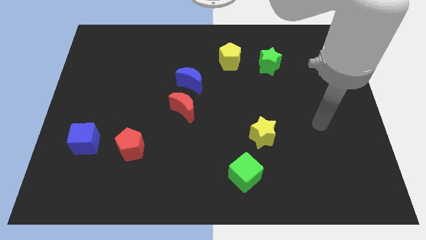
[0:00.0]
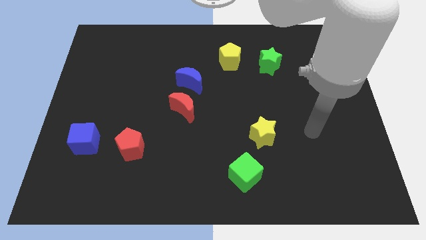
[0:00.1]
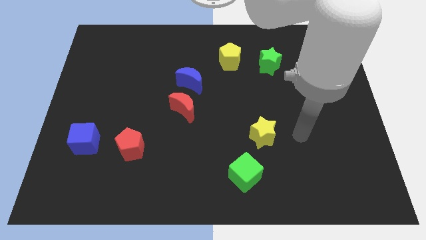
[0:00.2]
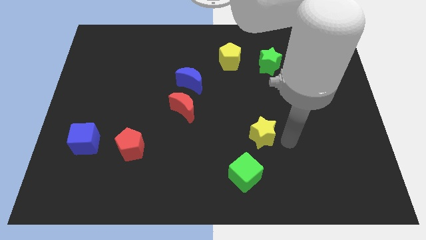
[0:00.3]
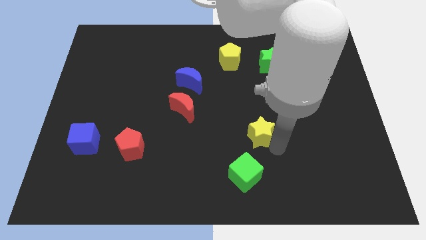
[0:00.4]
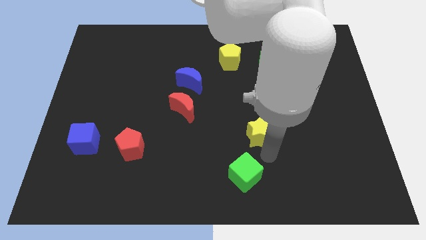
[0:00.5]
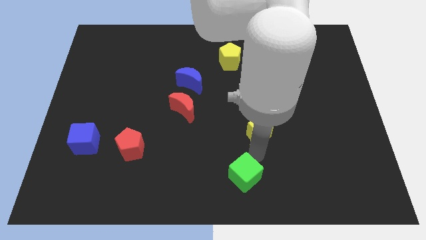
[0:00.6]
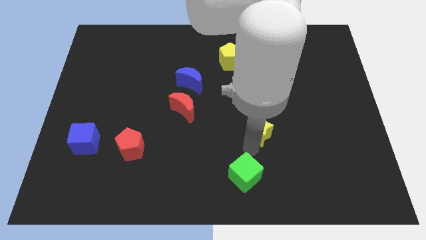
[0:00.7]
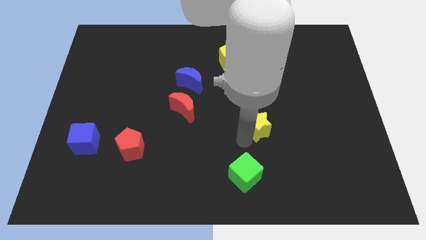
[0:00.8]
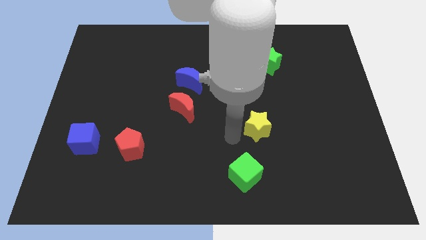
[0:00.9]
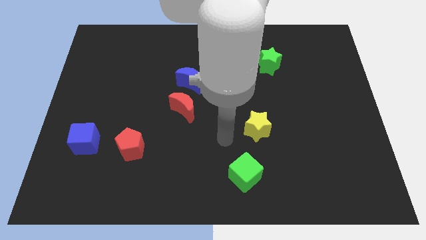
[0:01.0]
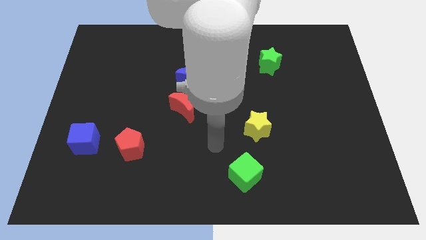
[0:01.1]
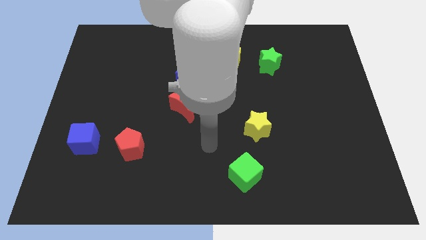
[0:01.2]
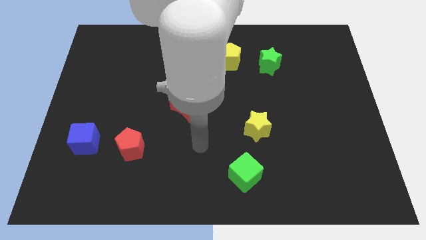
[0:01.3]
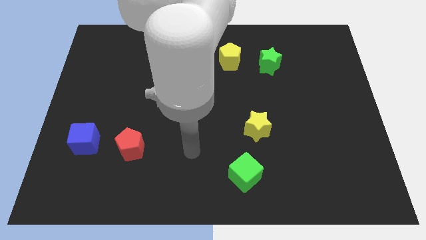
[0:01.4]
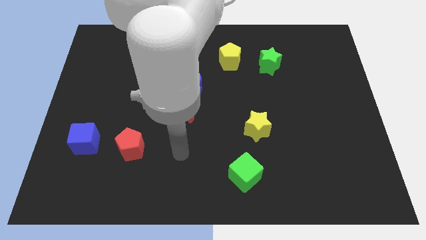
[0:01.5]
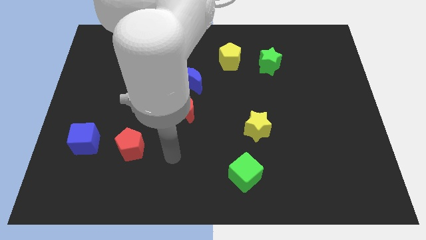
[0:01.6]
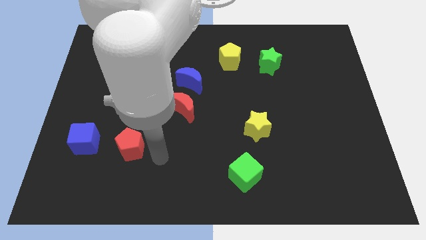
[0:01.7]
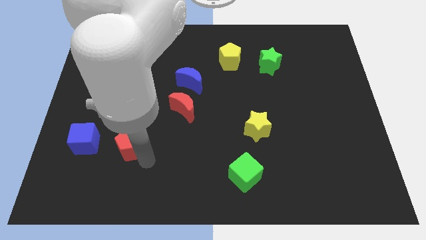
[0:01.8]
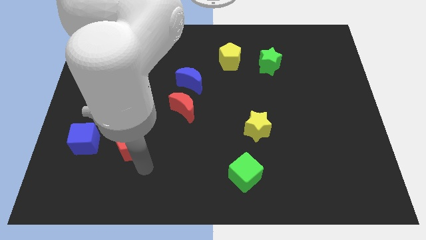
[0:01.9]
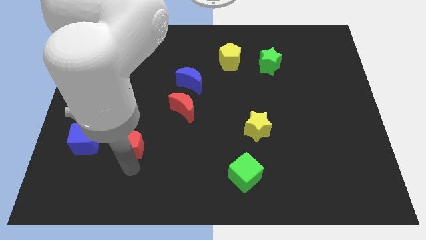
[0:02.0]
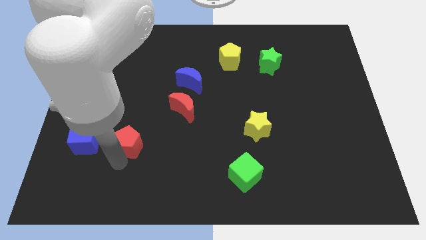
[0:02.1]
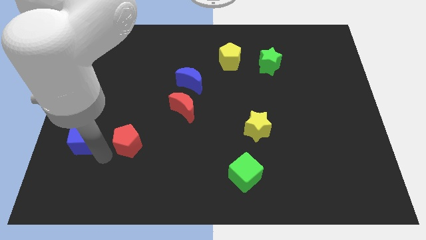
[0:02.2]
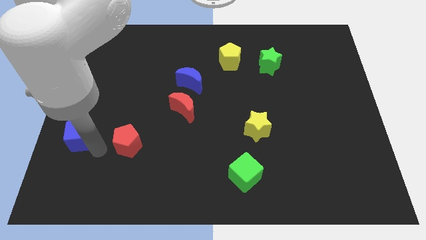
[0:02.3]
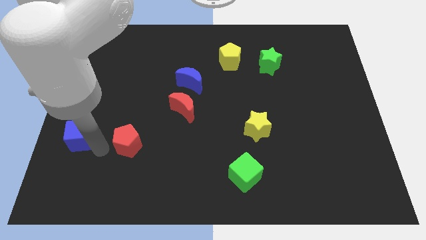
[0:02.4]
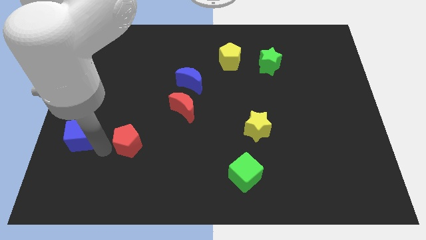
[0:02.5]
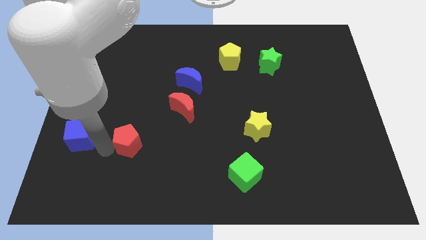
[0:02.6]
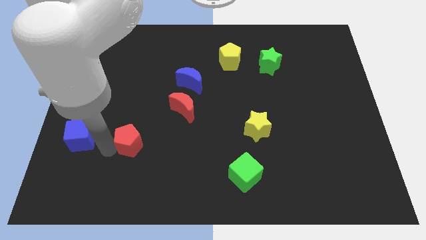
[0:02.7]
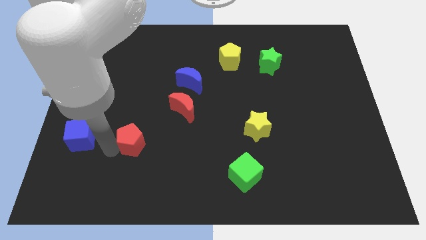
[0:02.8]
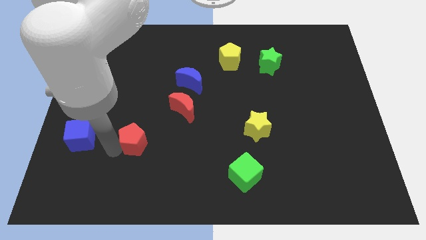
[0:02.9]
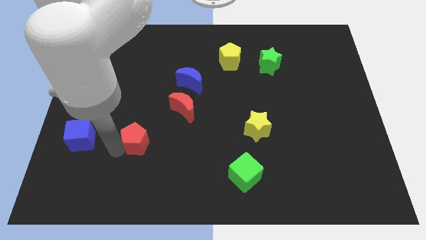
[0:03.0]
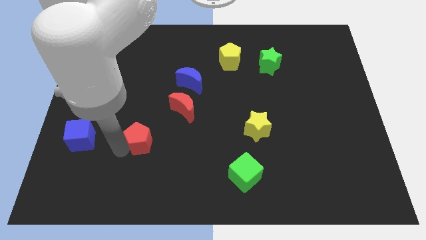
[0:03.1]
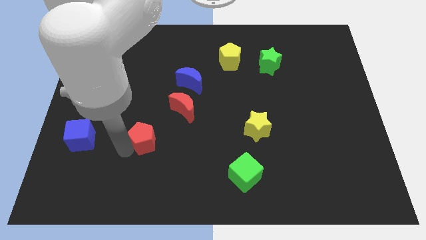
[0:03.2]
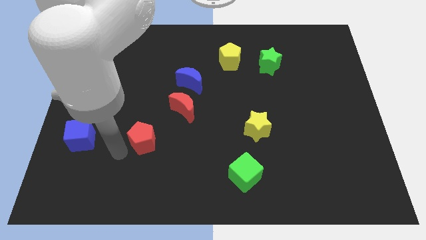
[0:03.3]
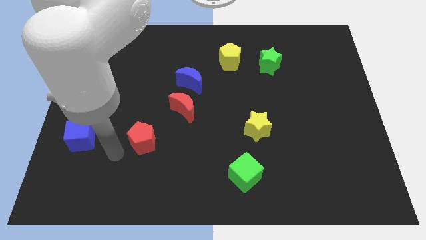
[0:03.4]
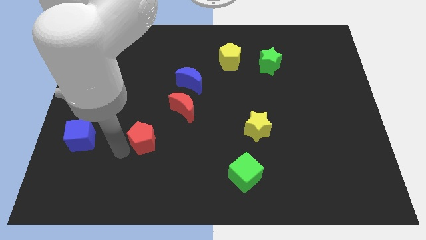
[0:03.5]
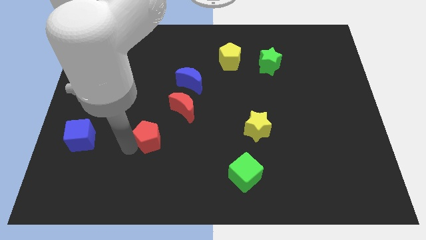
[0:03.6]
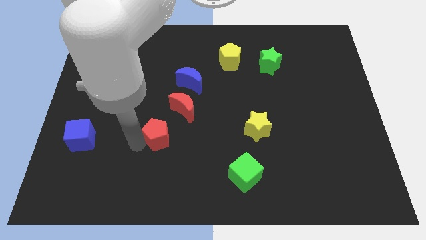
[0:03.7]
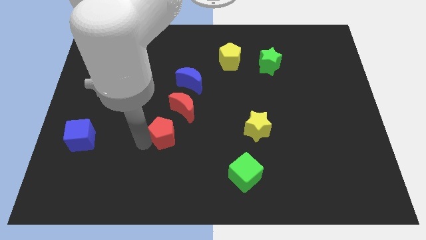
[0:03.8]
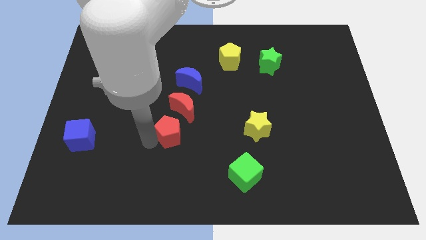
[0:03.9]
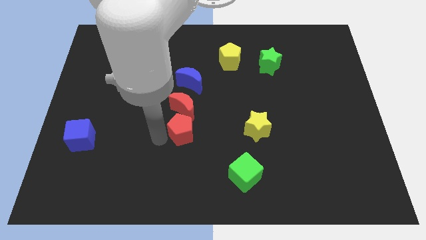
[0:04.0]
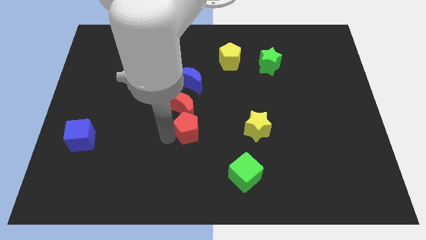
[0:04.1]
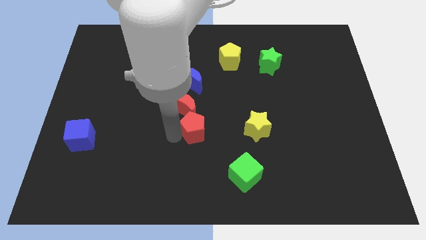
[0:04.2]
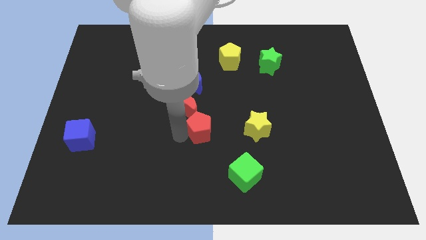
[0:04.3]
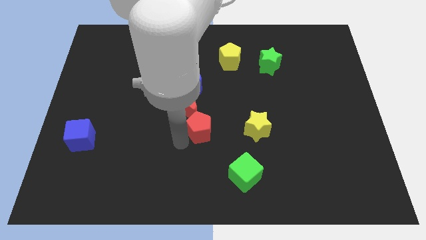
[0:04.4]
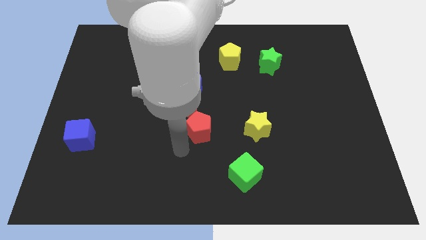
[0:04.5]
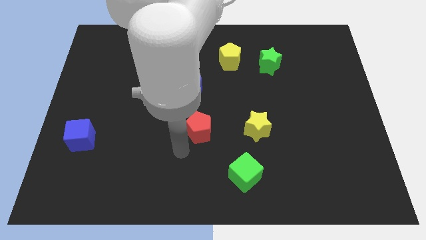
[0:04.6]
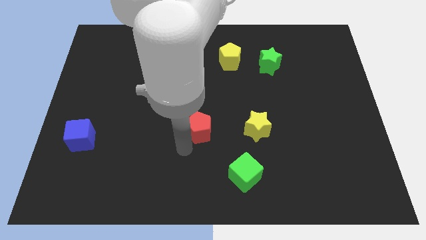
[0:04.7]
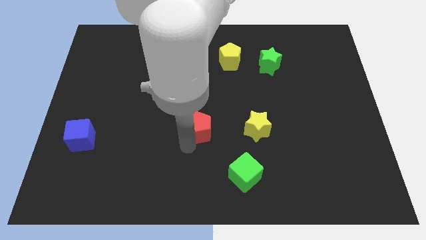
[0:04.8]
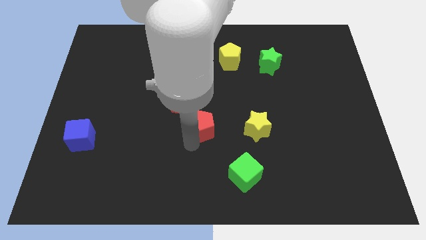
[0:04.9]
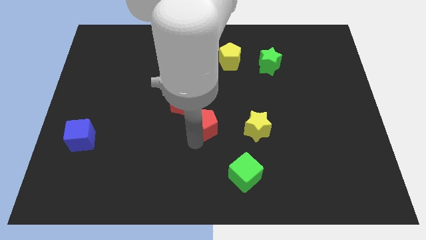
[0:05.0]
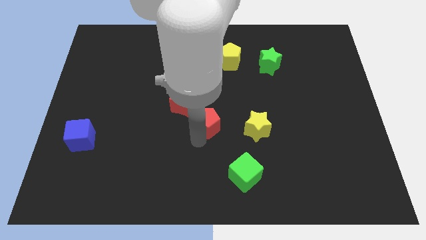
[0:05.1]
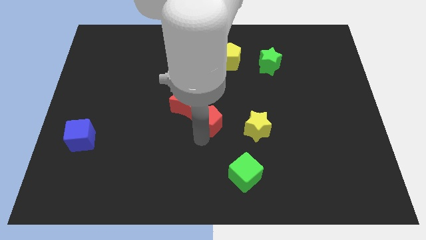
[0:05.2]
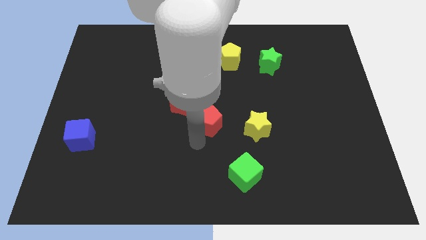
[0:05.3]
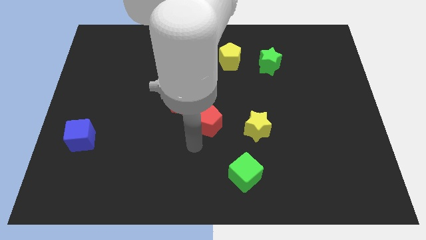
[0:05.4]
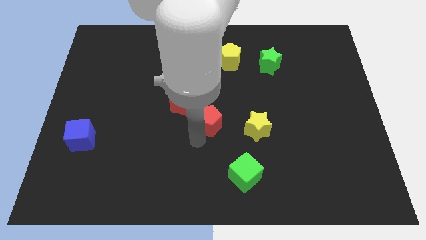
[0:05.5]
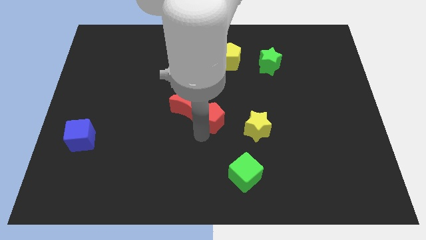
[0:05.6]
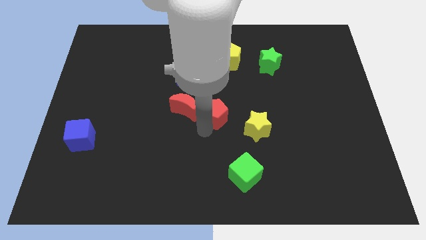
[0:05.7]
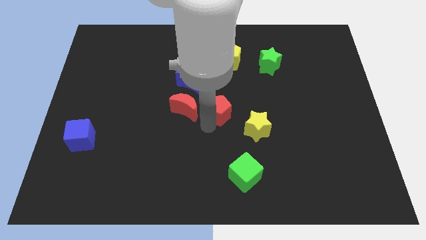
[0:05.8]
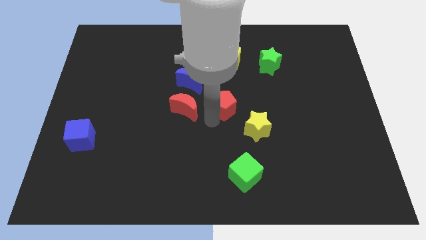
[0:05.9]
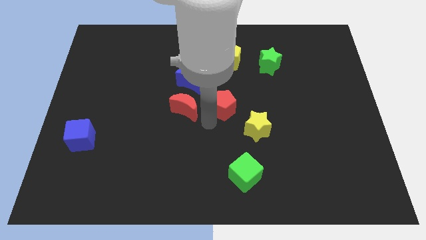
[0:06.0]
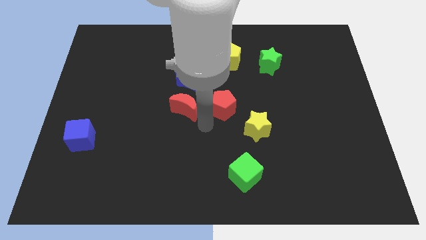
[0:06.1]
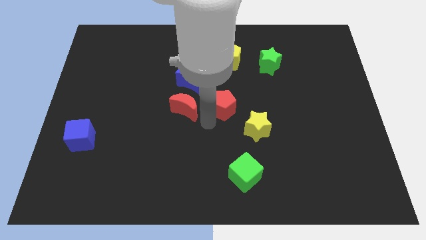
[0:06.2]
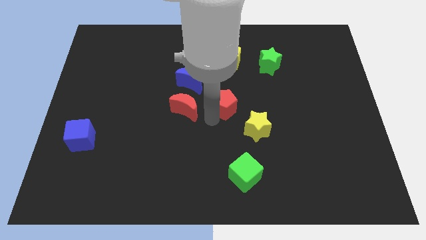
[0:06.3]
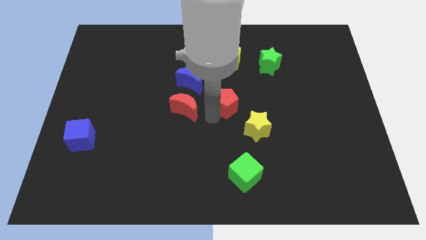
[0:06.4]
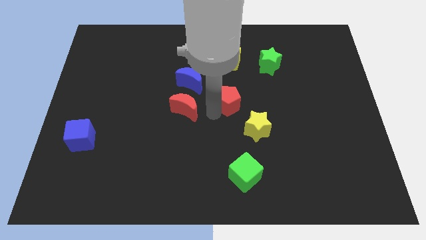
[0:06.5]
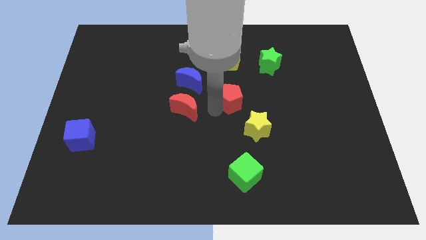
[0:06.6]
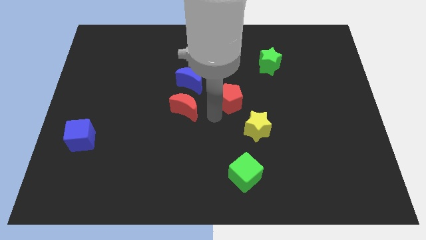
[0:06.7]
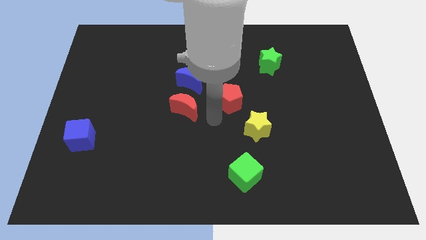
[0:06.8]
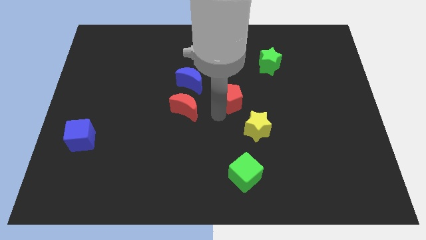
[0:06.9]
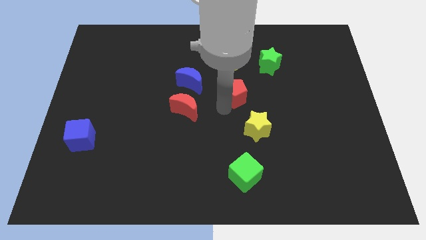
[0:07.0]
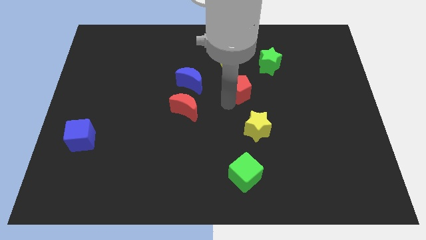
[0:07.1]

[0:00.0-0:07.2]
move the red pentagon to the bottom left side of the green star

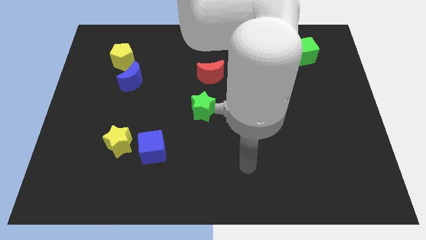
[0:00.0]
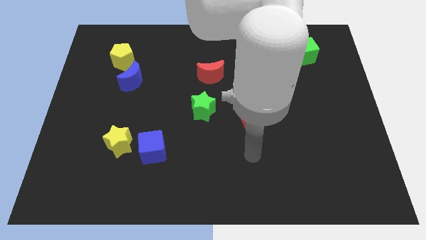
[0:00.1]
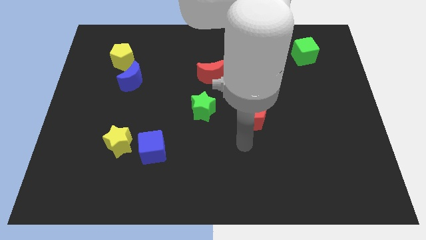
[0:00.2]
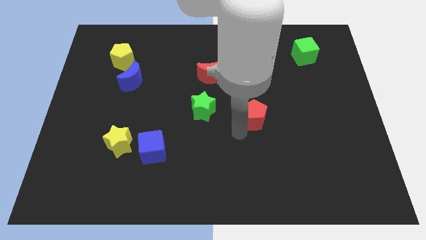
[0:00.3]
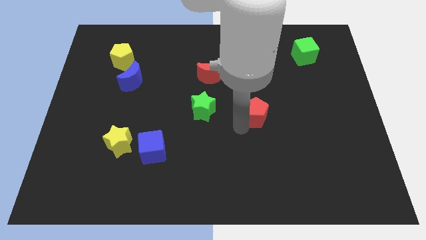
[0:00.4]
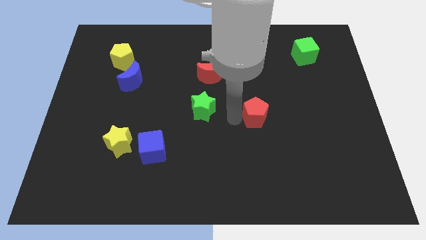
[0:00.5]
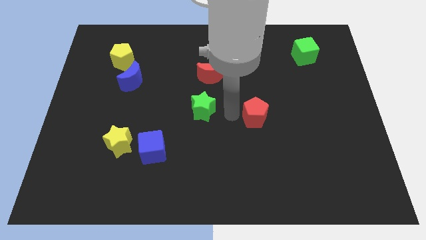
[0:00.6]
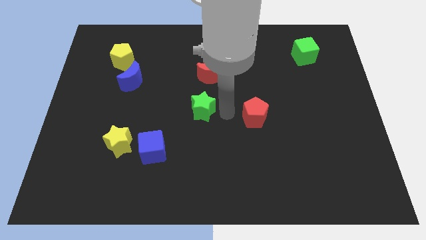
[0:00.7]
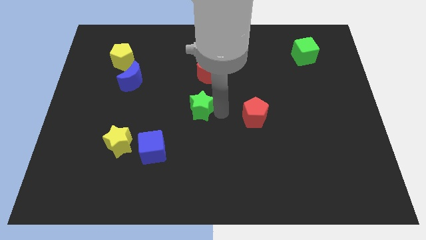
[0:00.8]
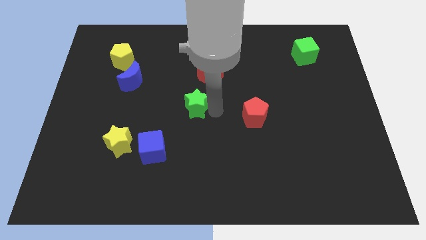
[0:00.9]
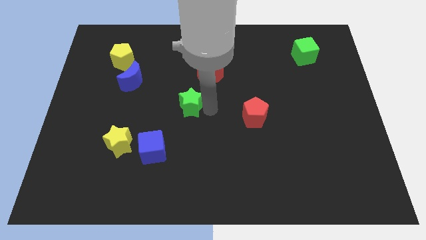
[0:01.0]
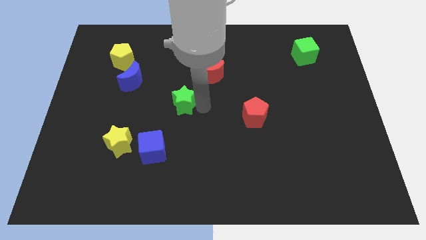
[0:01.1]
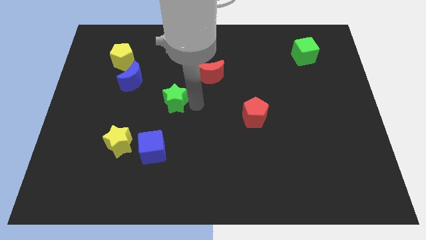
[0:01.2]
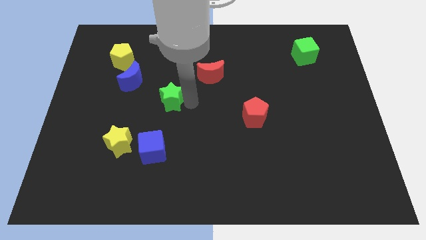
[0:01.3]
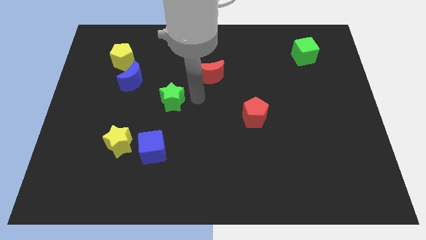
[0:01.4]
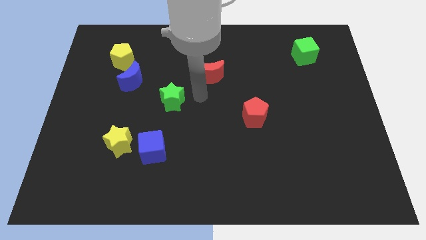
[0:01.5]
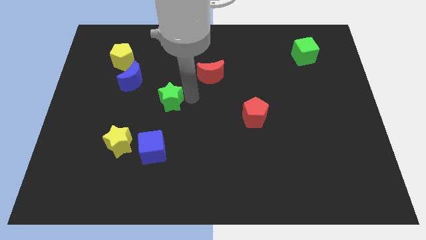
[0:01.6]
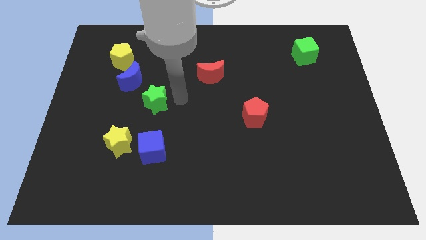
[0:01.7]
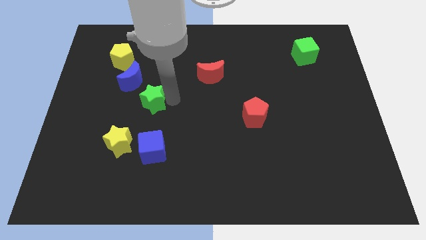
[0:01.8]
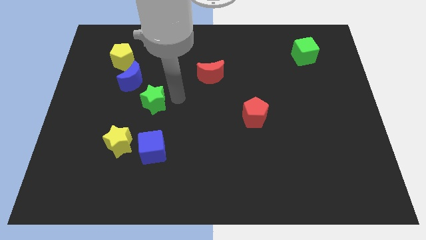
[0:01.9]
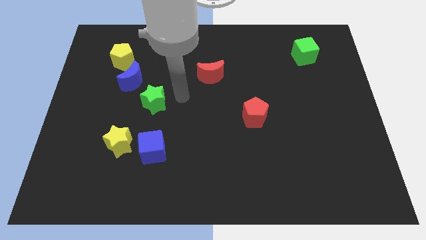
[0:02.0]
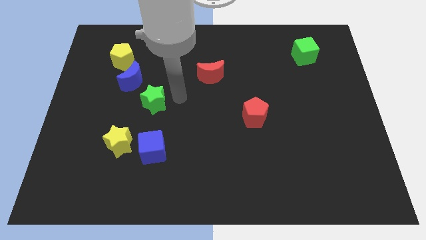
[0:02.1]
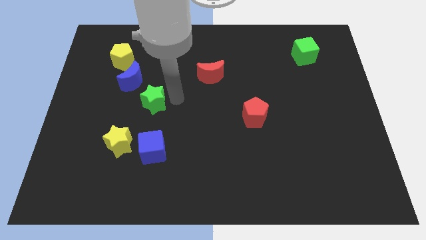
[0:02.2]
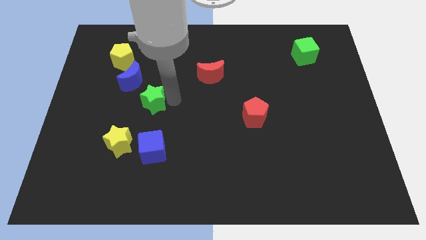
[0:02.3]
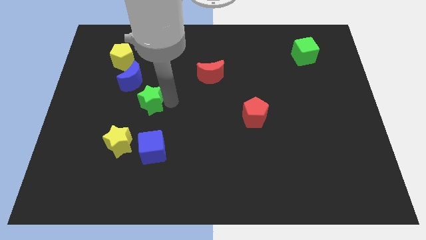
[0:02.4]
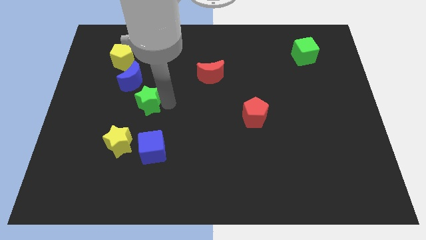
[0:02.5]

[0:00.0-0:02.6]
put the green star above the yellow star
